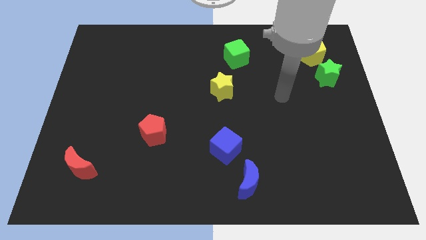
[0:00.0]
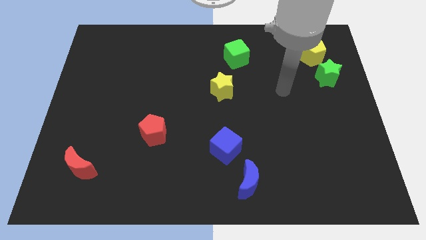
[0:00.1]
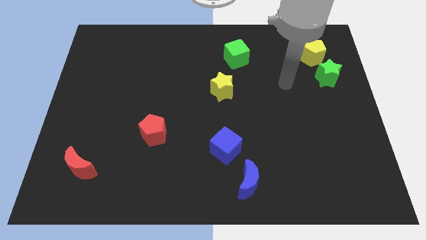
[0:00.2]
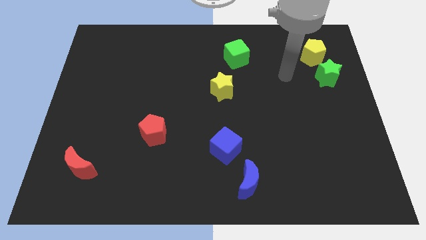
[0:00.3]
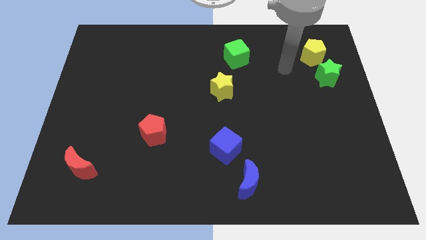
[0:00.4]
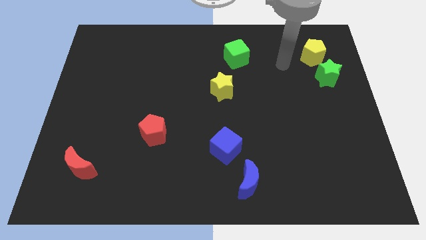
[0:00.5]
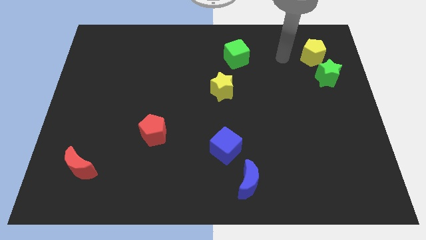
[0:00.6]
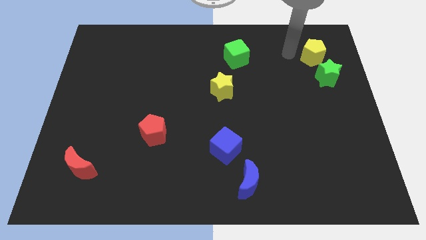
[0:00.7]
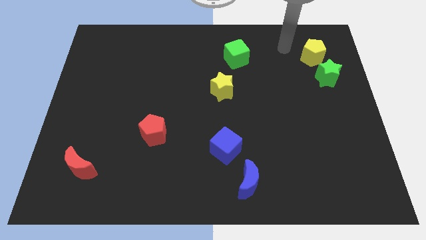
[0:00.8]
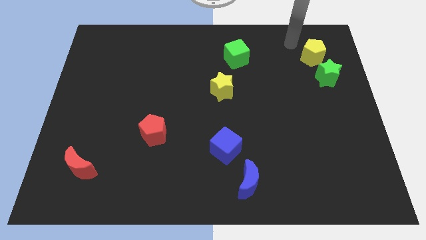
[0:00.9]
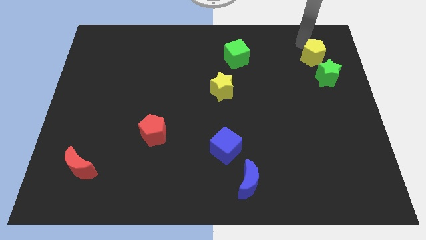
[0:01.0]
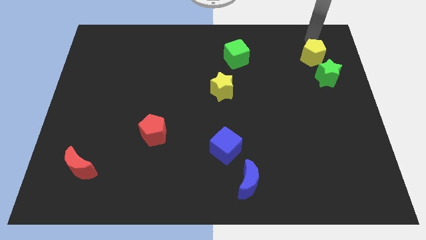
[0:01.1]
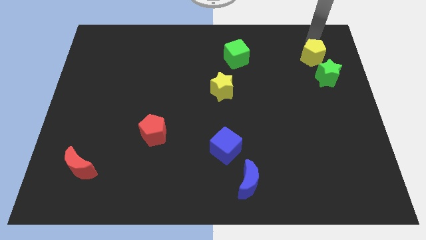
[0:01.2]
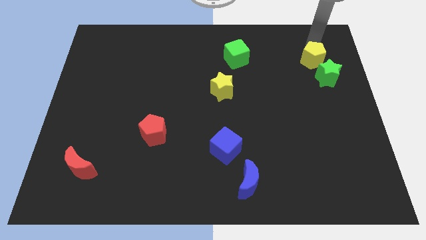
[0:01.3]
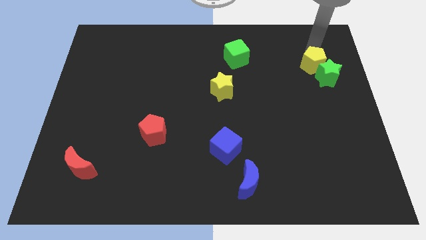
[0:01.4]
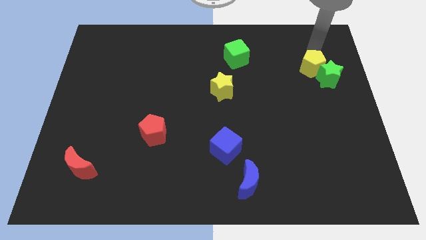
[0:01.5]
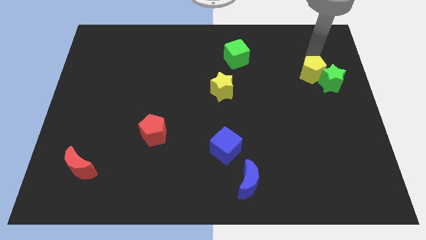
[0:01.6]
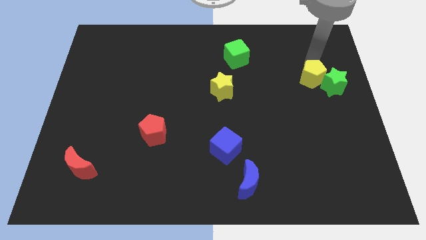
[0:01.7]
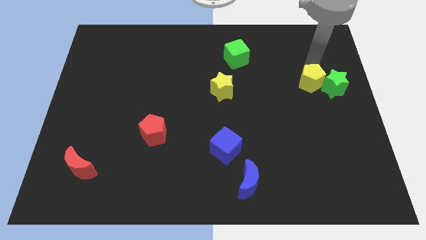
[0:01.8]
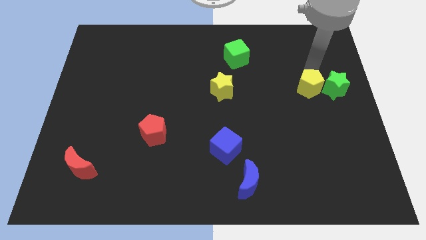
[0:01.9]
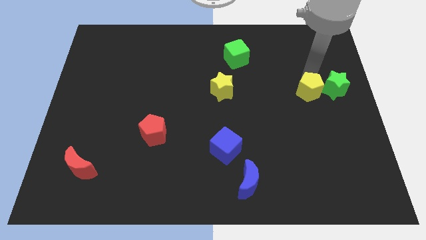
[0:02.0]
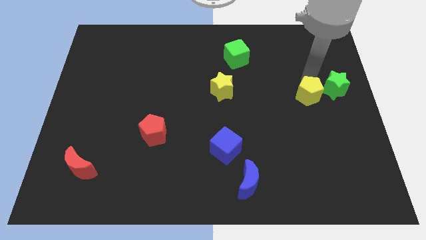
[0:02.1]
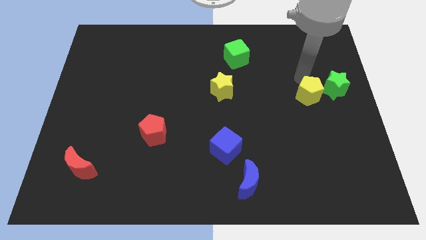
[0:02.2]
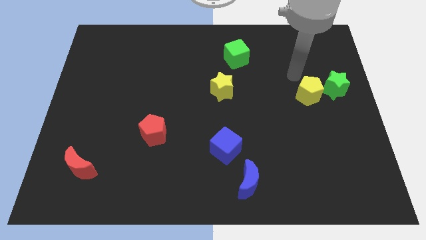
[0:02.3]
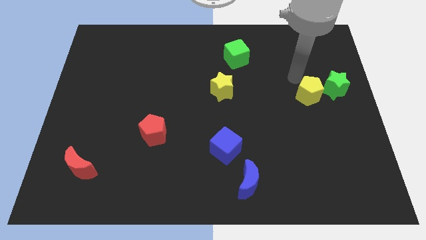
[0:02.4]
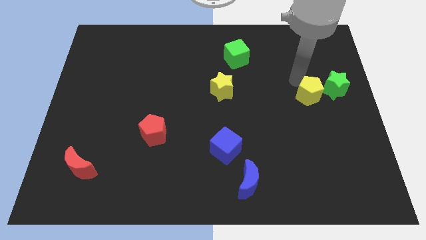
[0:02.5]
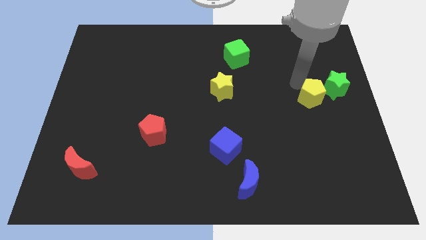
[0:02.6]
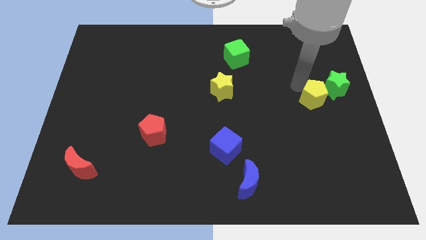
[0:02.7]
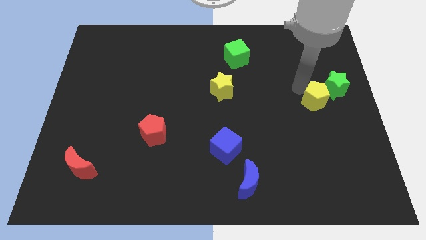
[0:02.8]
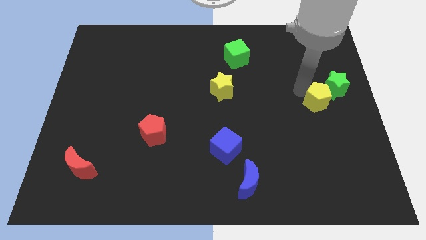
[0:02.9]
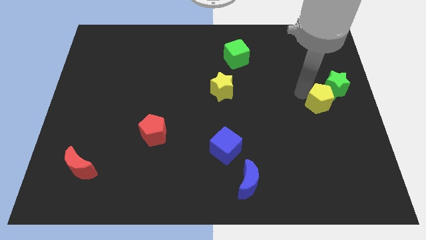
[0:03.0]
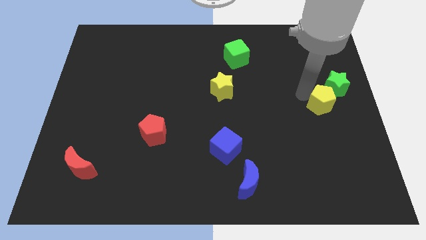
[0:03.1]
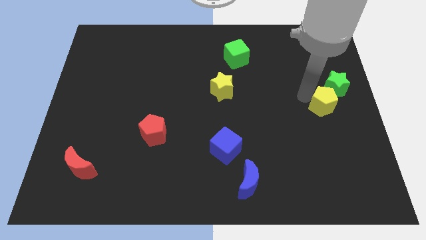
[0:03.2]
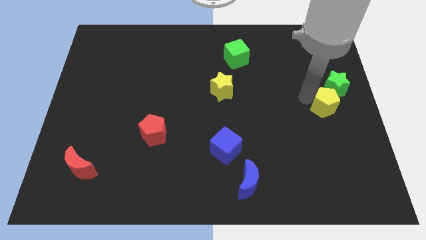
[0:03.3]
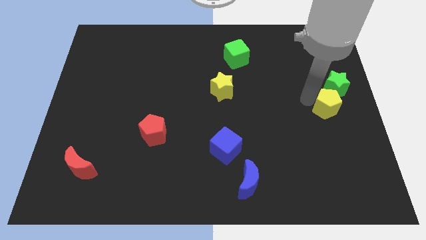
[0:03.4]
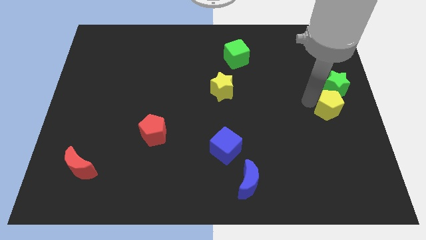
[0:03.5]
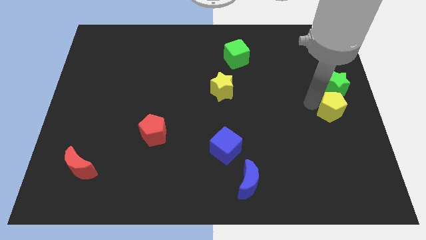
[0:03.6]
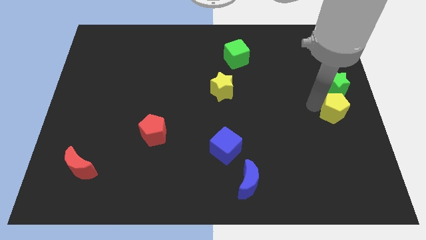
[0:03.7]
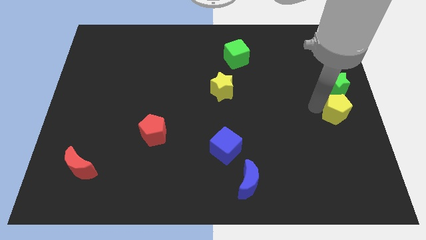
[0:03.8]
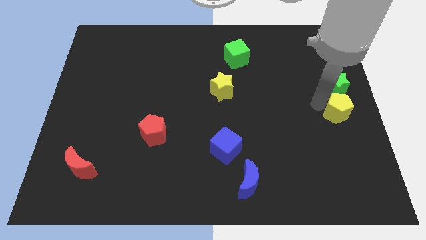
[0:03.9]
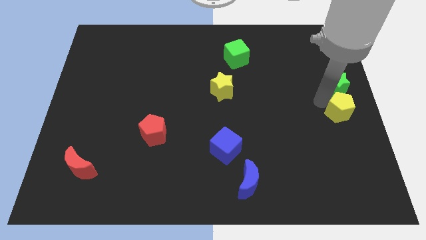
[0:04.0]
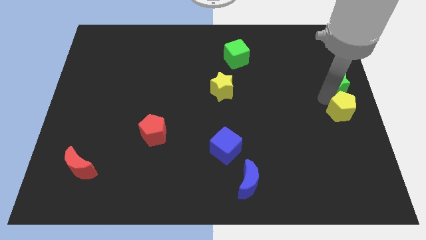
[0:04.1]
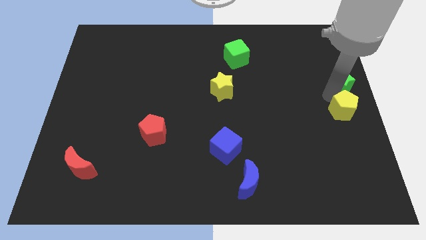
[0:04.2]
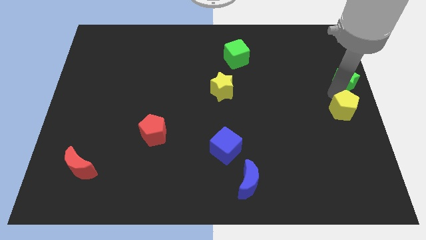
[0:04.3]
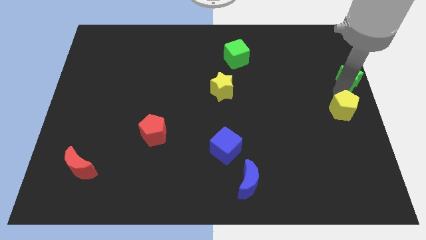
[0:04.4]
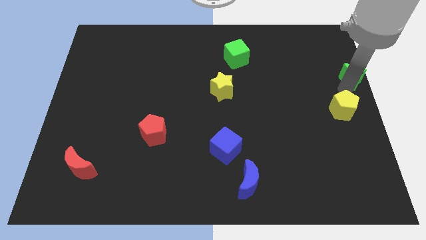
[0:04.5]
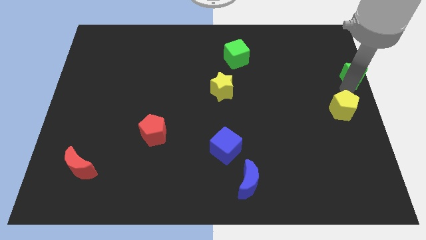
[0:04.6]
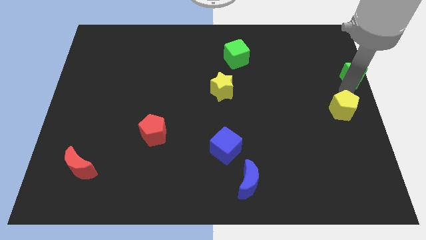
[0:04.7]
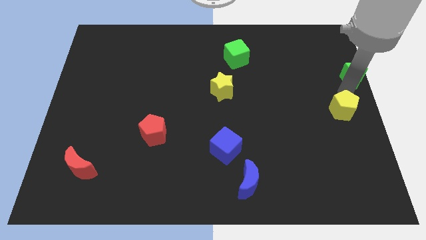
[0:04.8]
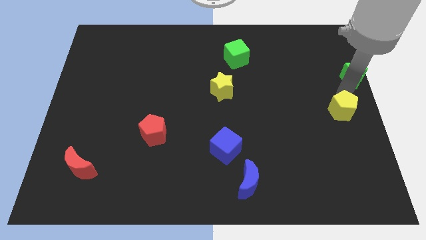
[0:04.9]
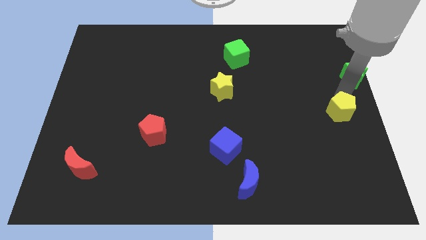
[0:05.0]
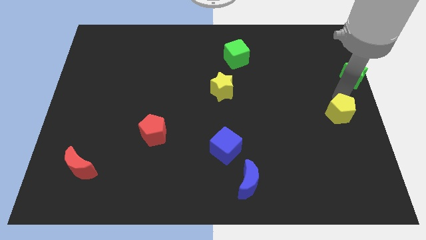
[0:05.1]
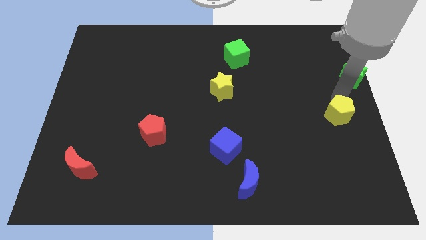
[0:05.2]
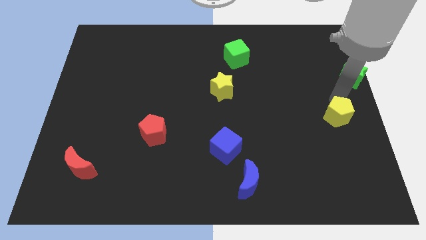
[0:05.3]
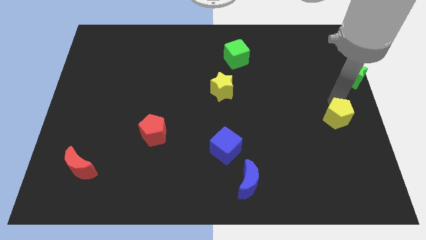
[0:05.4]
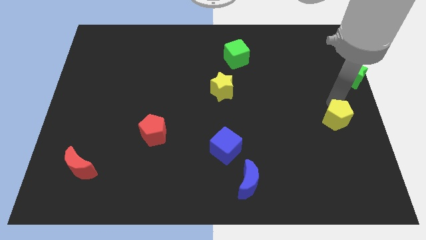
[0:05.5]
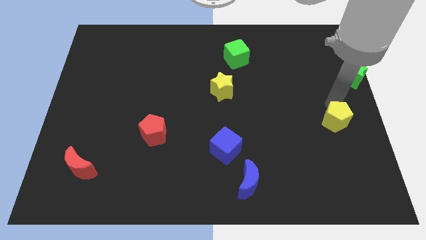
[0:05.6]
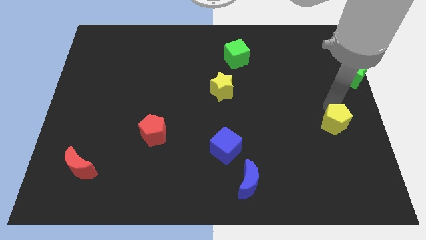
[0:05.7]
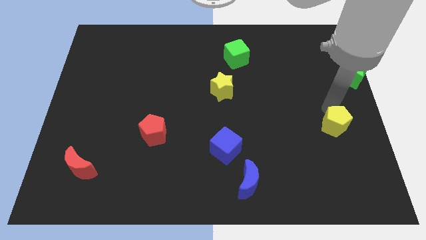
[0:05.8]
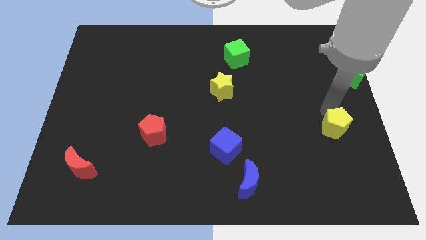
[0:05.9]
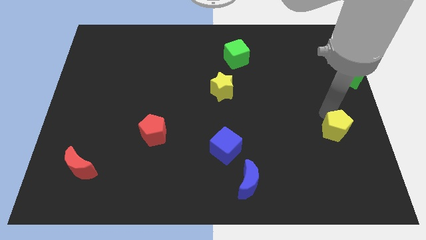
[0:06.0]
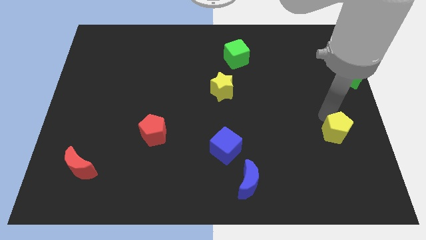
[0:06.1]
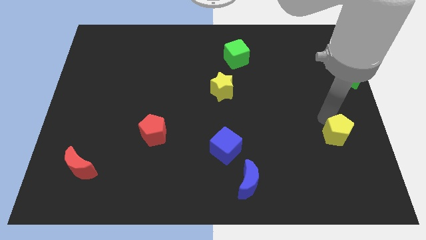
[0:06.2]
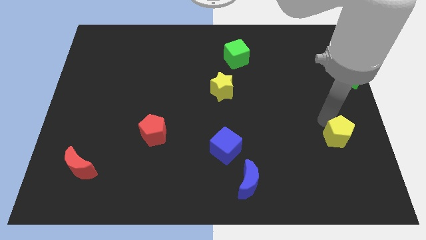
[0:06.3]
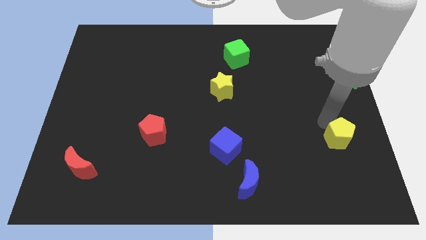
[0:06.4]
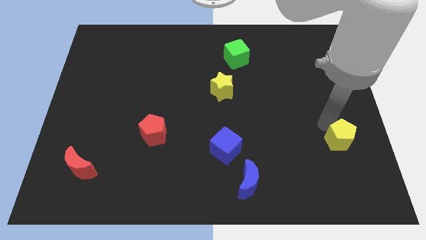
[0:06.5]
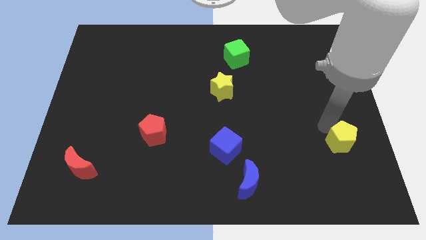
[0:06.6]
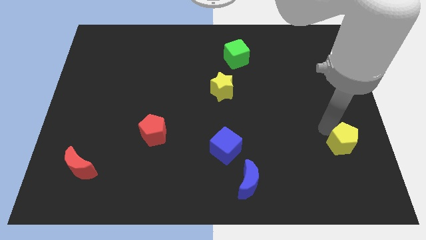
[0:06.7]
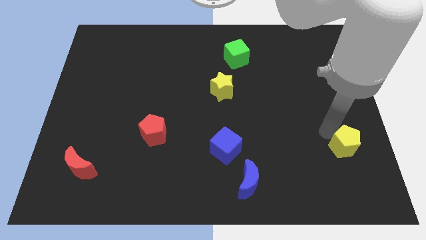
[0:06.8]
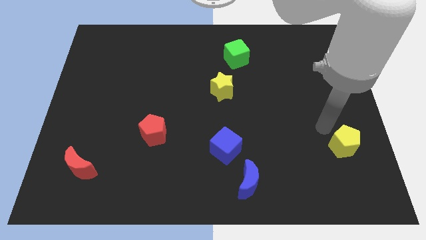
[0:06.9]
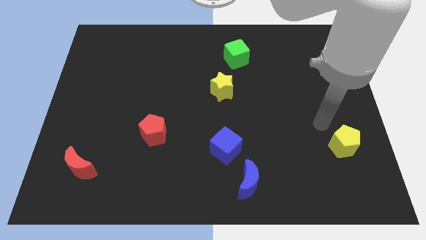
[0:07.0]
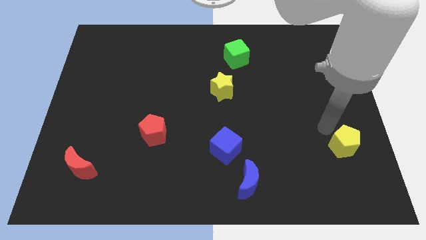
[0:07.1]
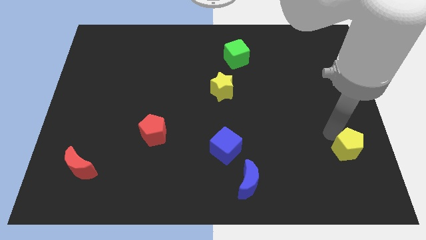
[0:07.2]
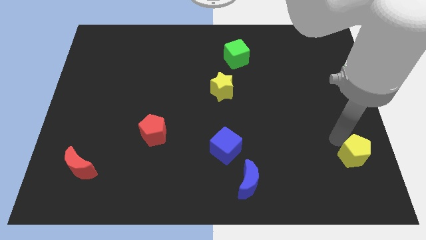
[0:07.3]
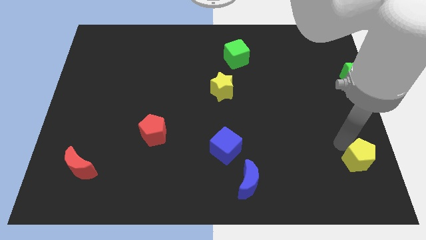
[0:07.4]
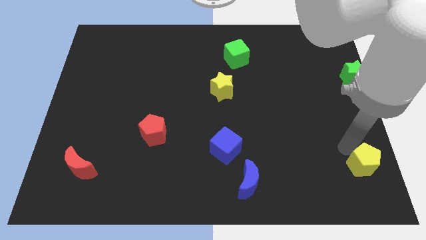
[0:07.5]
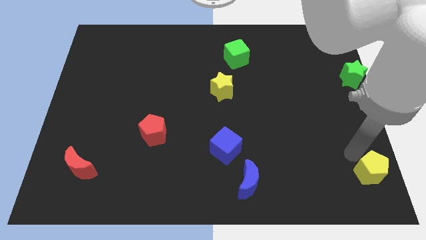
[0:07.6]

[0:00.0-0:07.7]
move the yellow pentagon to the bottom right of the board
